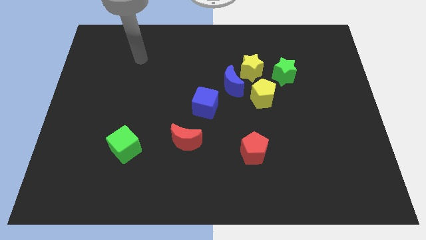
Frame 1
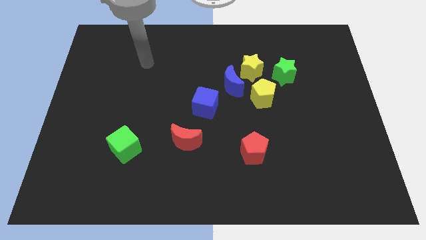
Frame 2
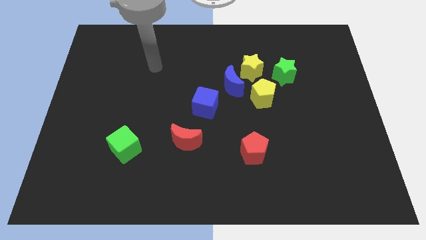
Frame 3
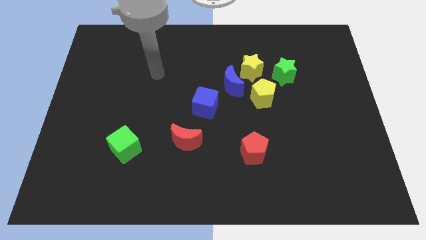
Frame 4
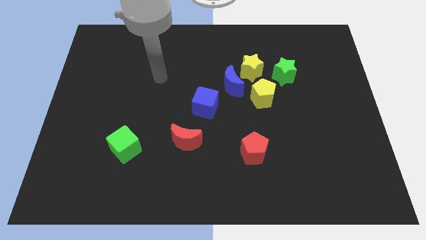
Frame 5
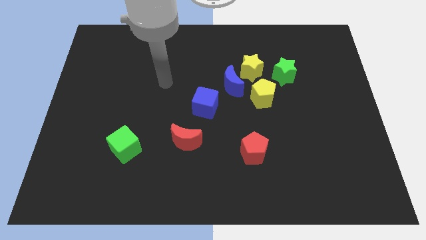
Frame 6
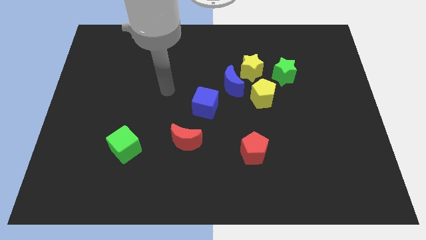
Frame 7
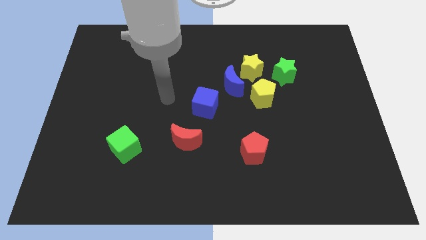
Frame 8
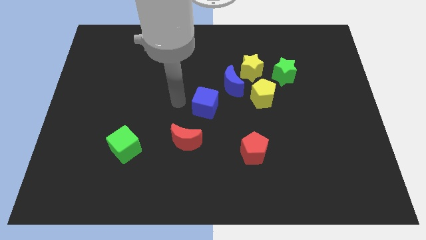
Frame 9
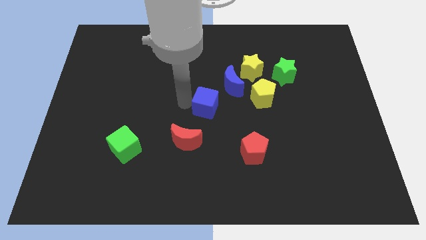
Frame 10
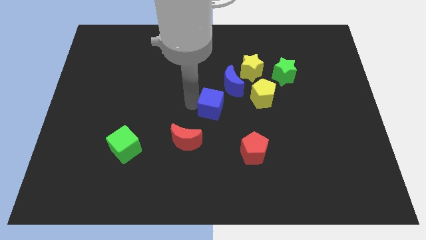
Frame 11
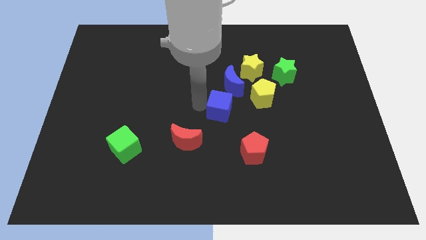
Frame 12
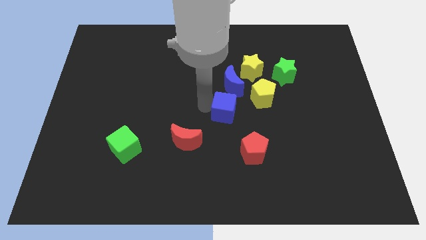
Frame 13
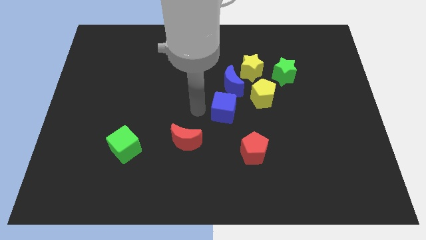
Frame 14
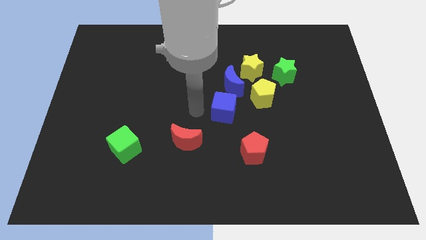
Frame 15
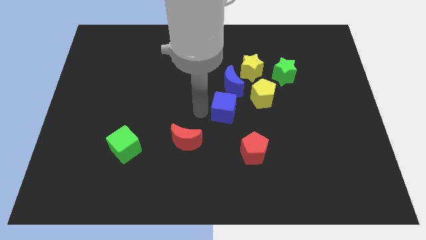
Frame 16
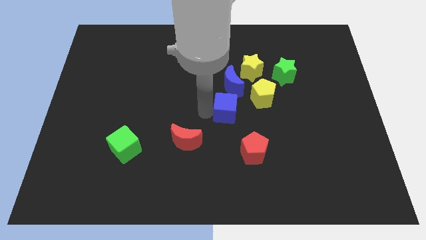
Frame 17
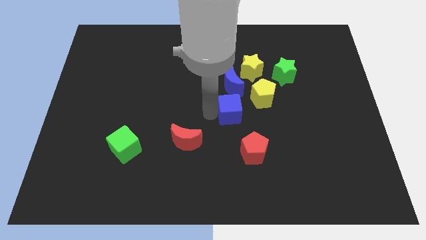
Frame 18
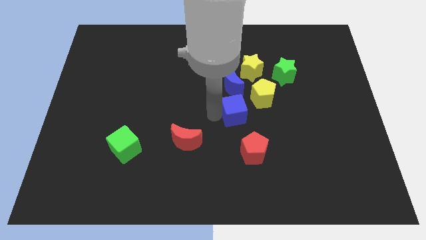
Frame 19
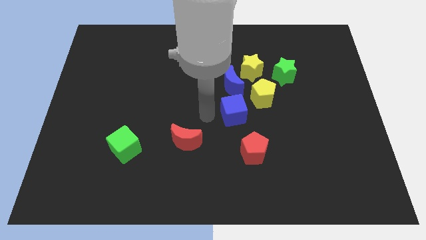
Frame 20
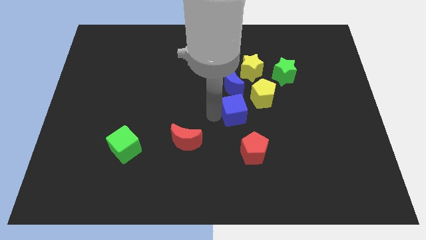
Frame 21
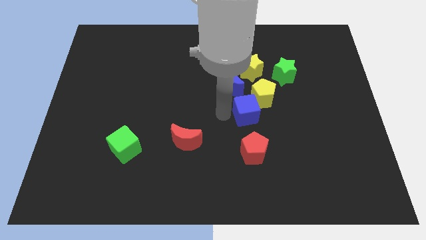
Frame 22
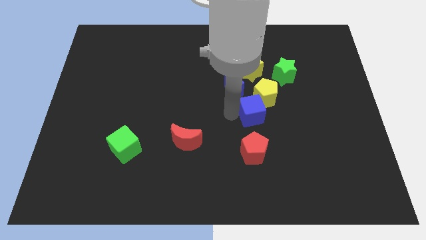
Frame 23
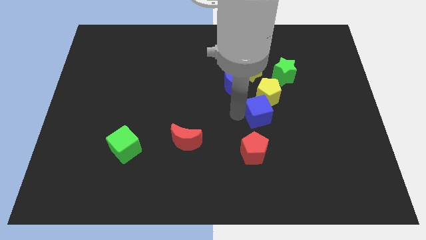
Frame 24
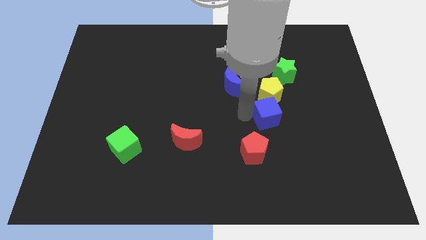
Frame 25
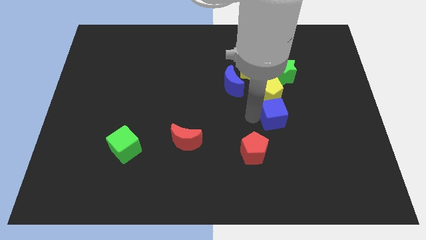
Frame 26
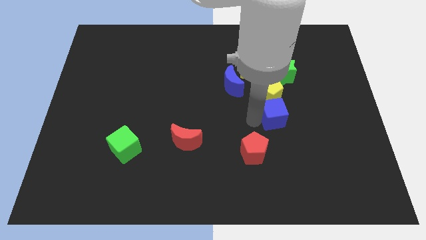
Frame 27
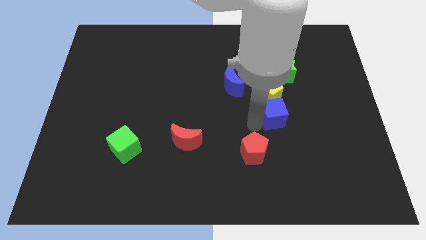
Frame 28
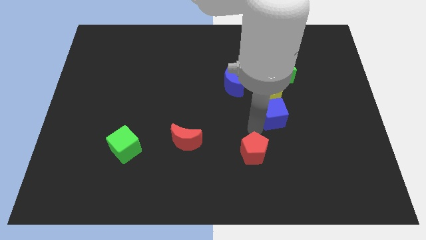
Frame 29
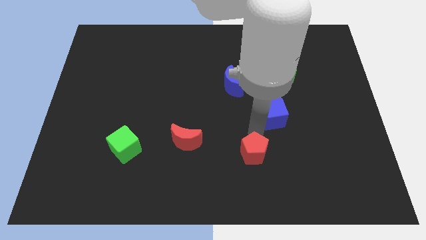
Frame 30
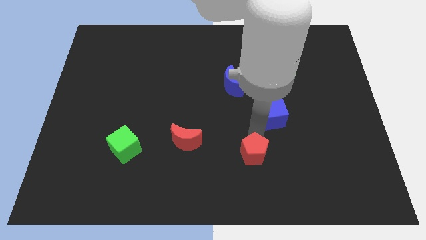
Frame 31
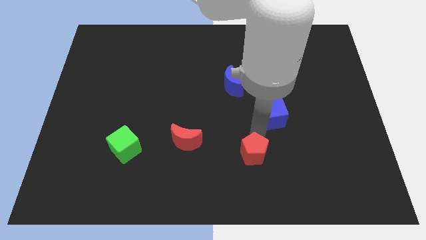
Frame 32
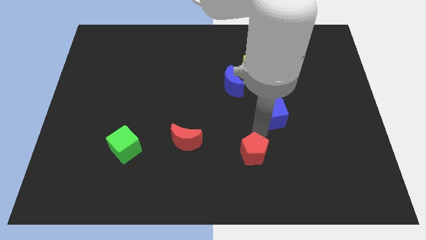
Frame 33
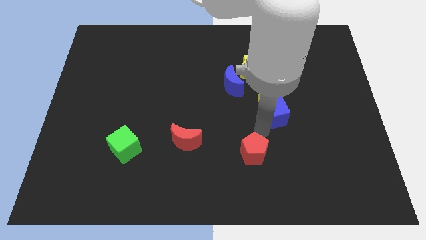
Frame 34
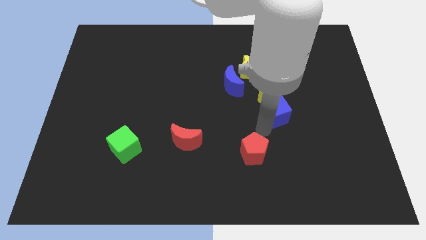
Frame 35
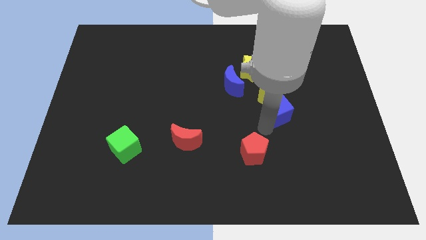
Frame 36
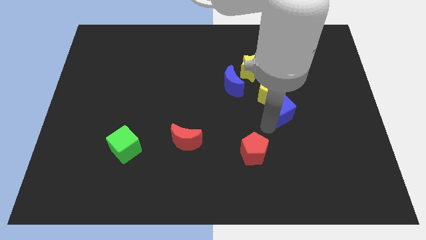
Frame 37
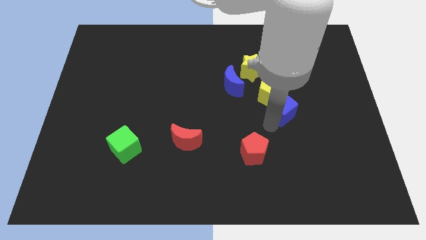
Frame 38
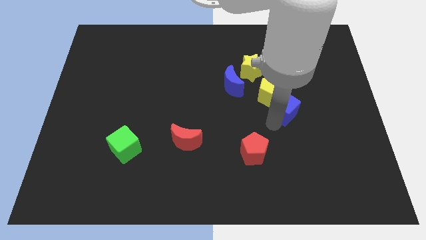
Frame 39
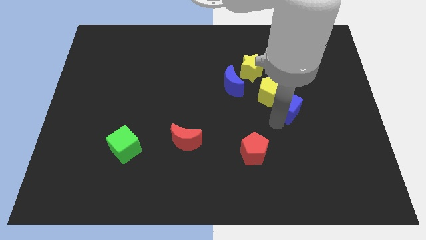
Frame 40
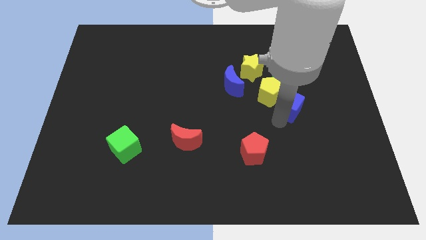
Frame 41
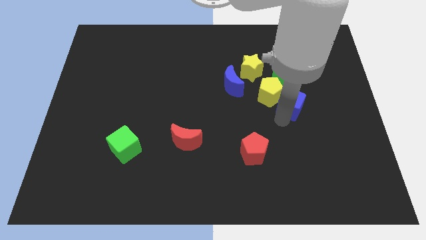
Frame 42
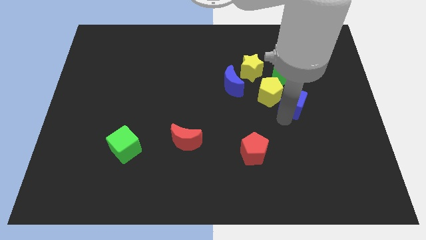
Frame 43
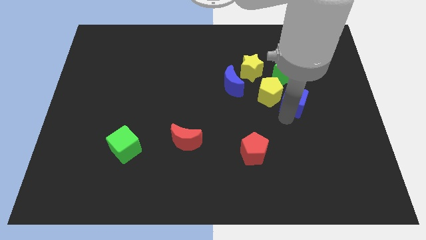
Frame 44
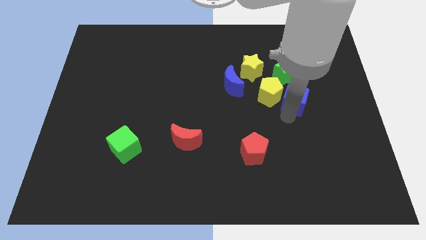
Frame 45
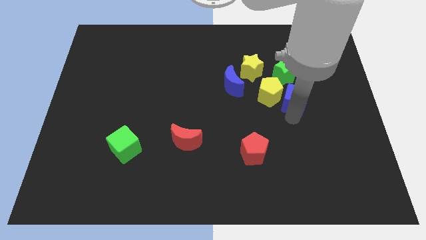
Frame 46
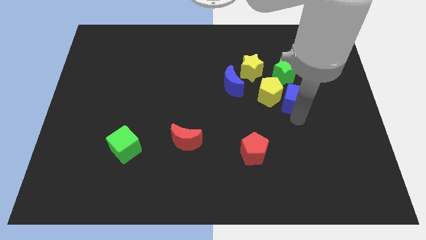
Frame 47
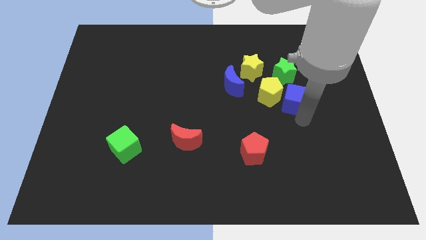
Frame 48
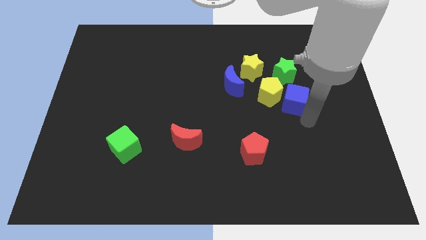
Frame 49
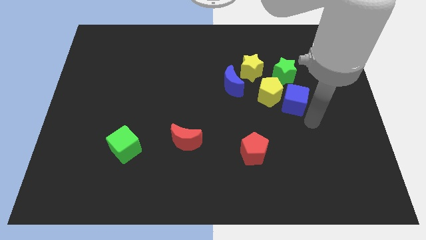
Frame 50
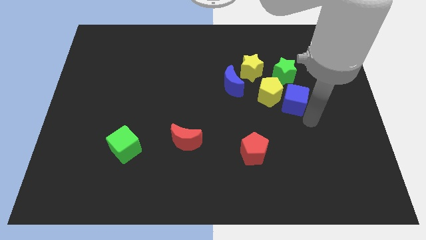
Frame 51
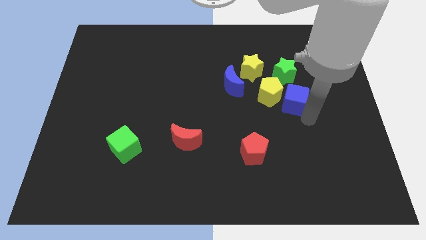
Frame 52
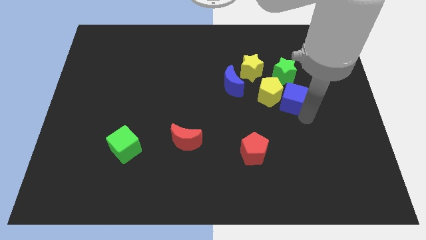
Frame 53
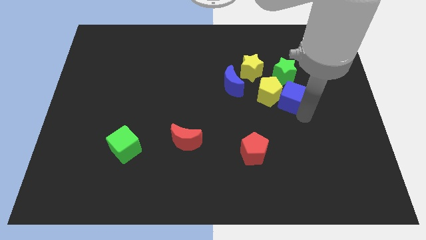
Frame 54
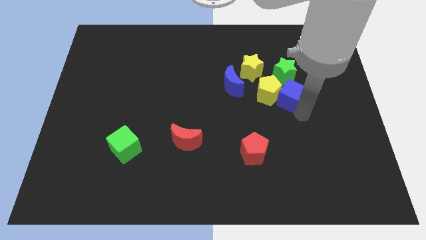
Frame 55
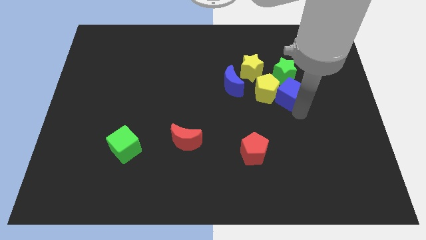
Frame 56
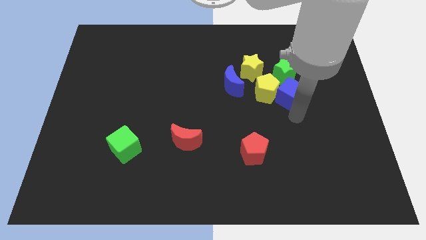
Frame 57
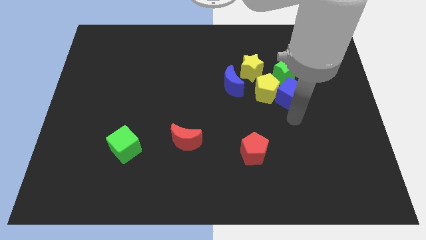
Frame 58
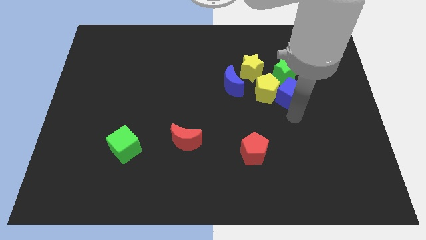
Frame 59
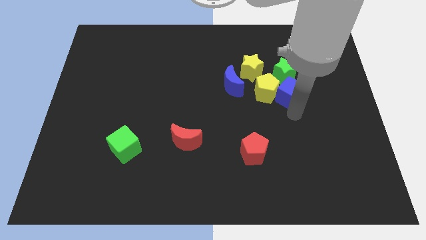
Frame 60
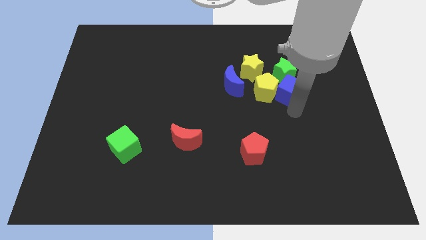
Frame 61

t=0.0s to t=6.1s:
put the blue cube close to the green star

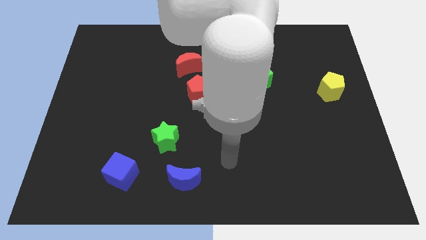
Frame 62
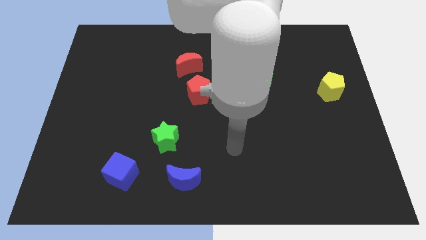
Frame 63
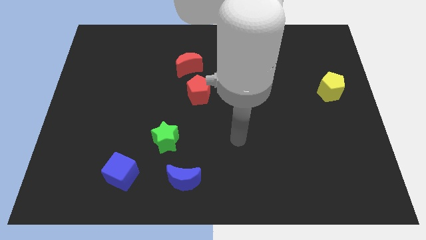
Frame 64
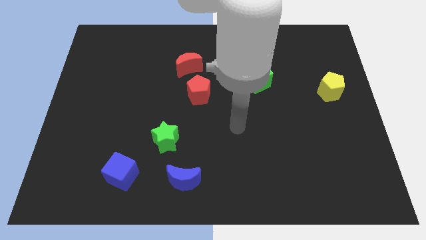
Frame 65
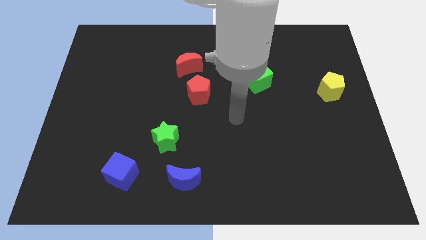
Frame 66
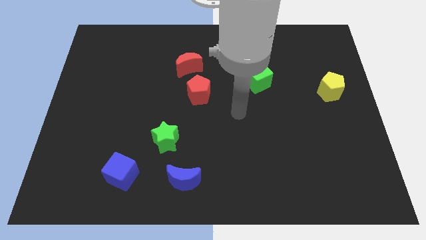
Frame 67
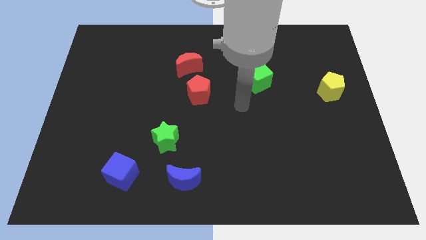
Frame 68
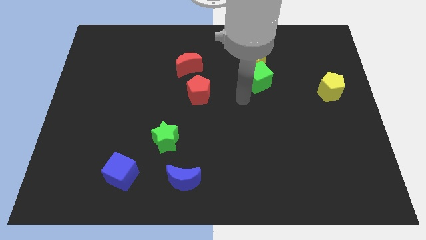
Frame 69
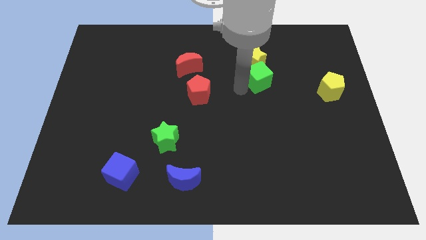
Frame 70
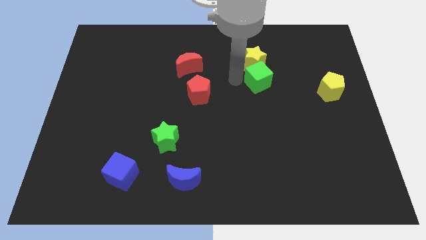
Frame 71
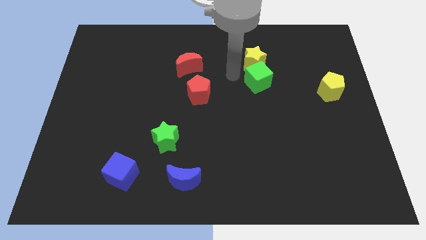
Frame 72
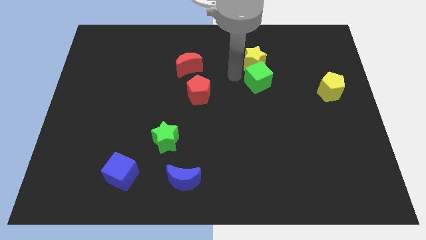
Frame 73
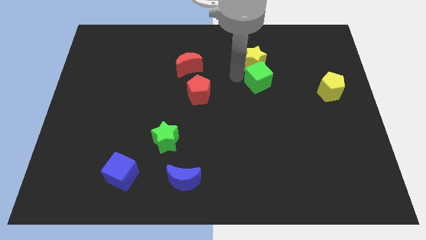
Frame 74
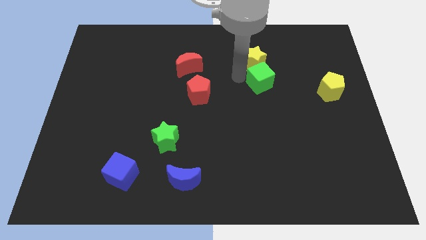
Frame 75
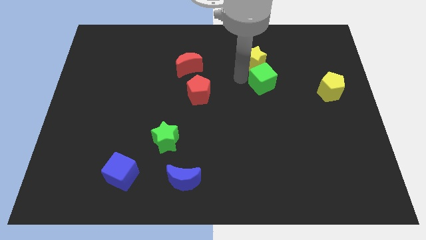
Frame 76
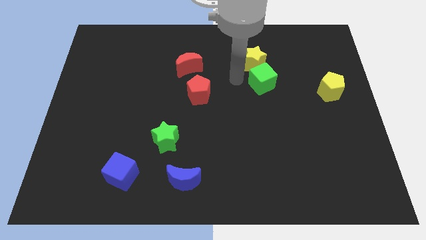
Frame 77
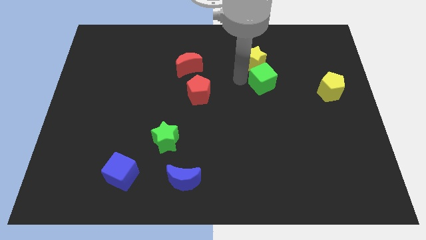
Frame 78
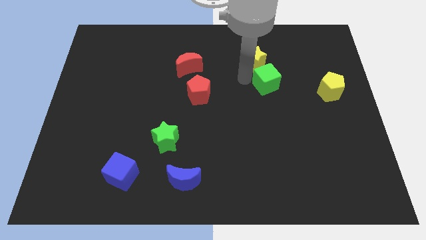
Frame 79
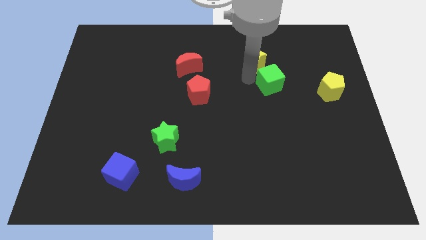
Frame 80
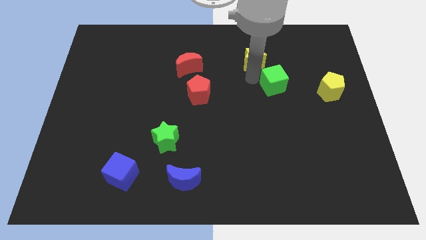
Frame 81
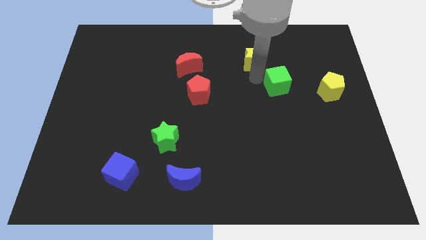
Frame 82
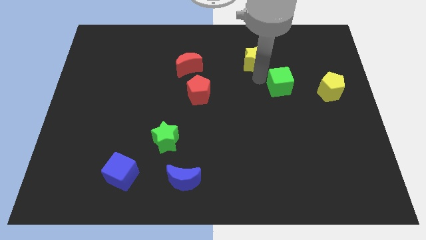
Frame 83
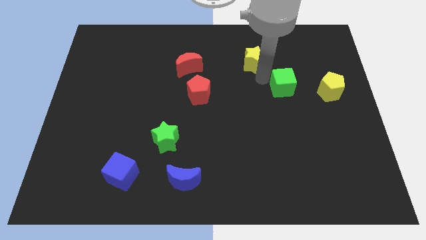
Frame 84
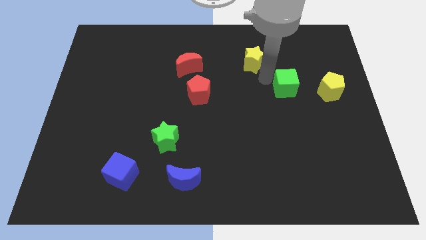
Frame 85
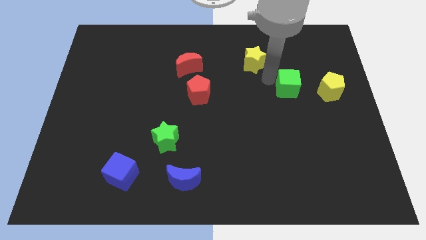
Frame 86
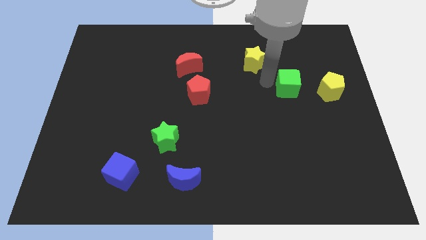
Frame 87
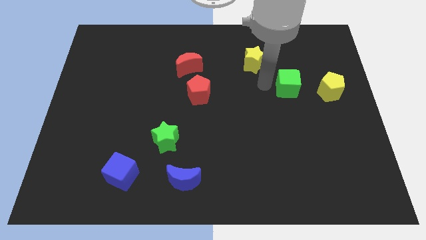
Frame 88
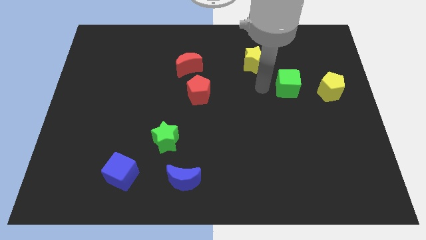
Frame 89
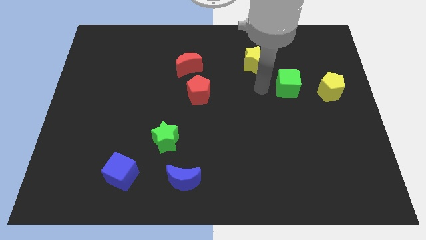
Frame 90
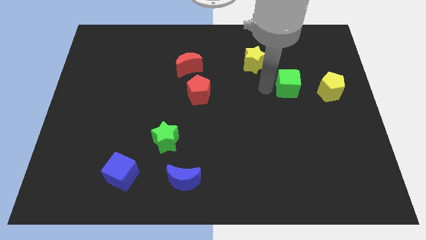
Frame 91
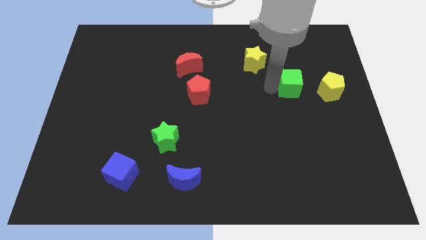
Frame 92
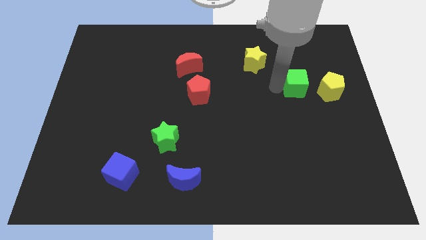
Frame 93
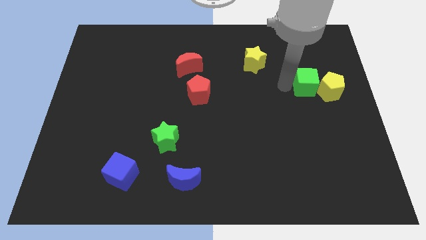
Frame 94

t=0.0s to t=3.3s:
put the green cube close to the yellow pentagon
